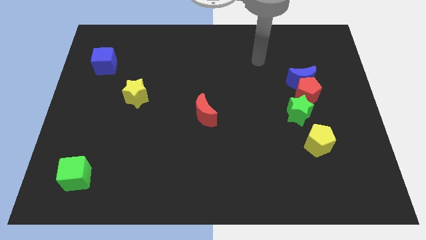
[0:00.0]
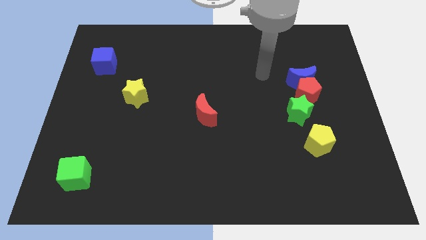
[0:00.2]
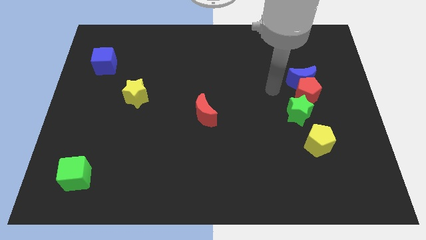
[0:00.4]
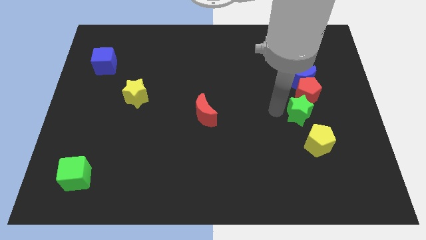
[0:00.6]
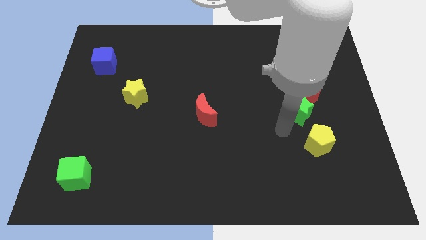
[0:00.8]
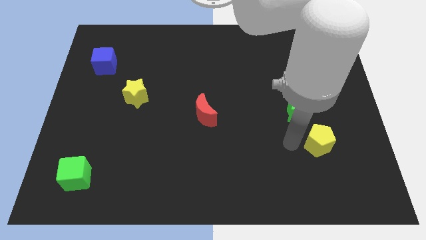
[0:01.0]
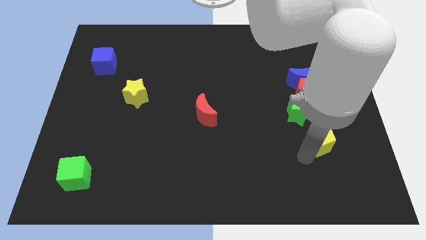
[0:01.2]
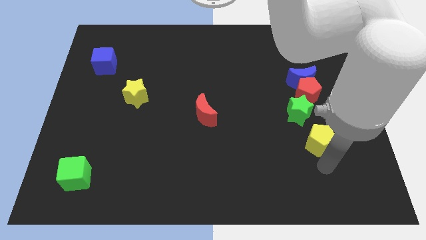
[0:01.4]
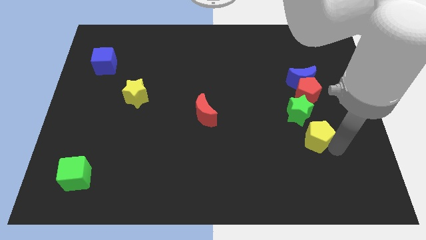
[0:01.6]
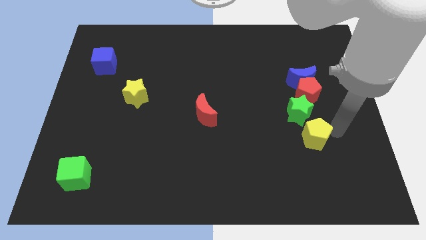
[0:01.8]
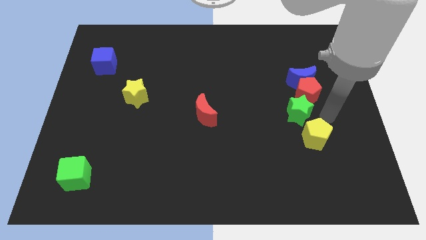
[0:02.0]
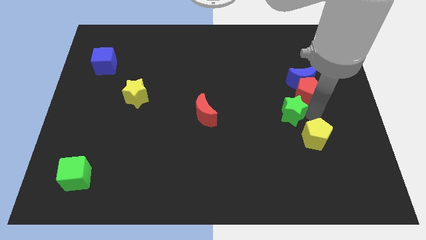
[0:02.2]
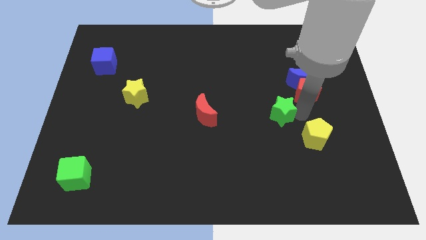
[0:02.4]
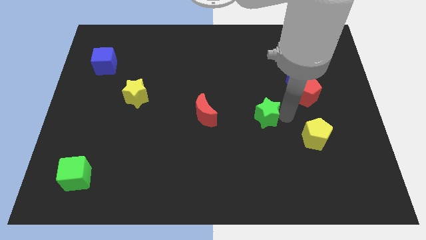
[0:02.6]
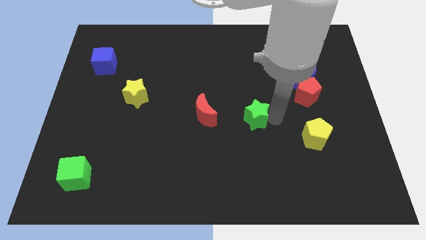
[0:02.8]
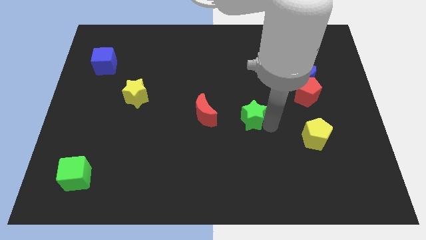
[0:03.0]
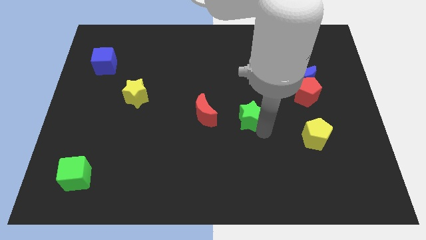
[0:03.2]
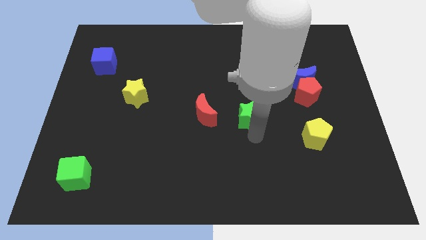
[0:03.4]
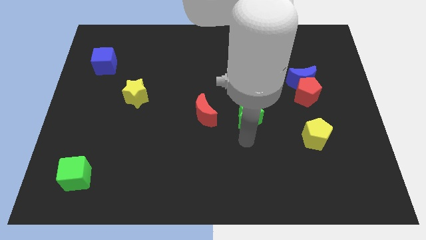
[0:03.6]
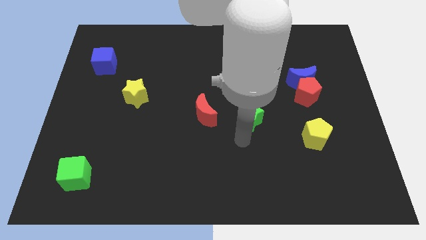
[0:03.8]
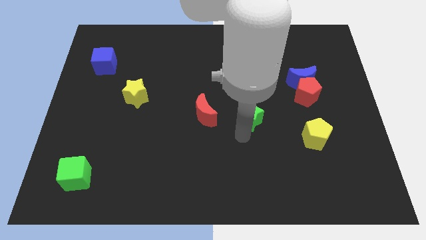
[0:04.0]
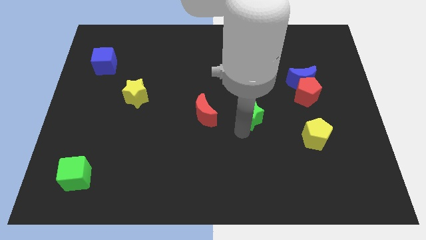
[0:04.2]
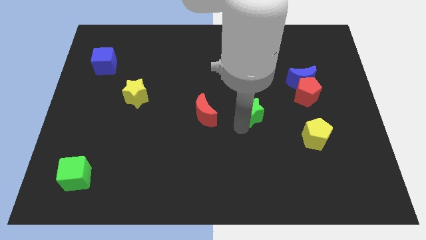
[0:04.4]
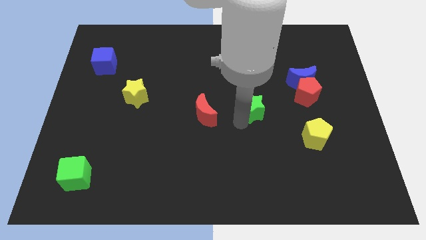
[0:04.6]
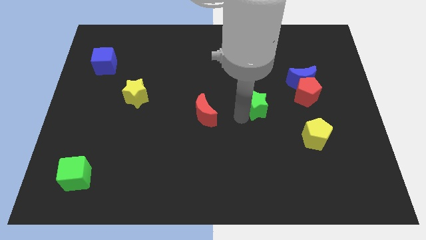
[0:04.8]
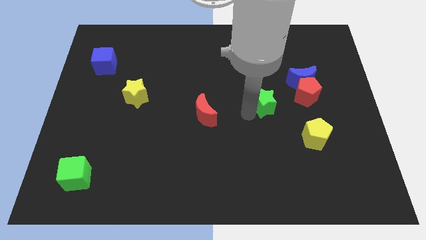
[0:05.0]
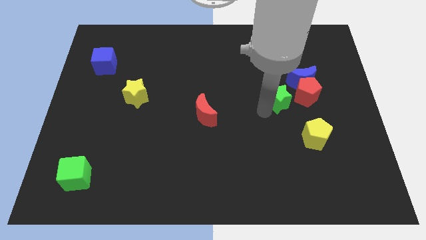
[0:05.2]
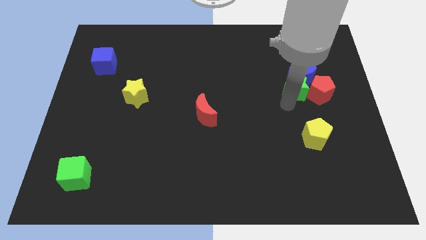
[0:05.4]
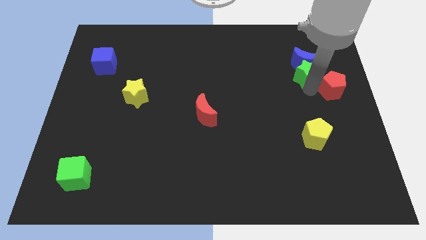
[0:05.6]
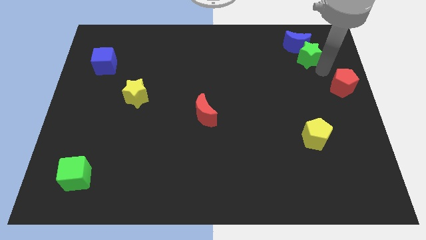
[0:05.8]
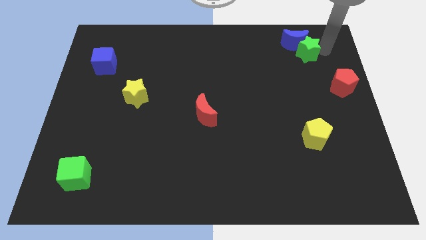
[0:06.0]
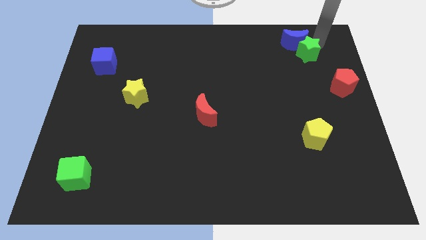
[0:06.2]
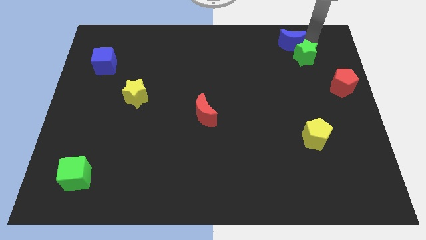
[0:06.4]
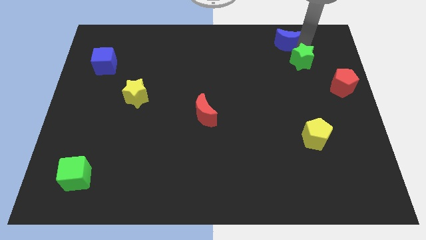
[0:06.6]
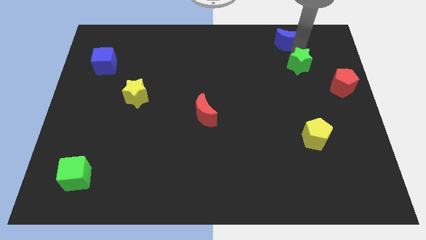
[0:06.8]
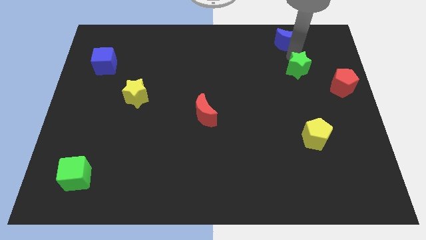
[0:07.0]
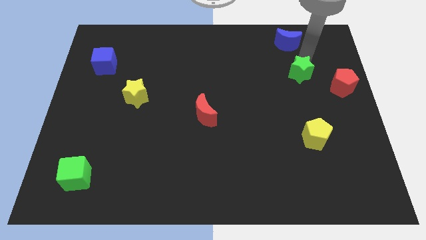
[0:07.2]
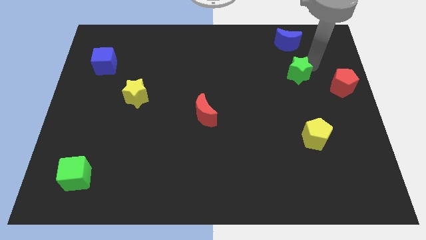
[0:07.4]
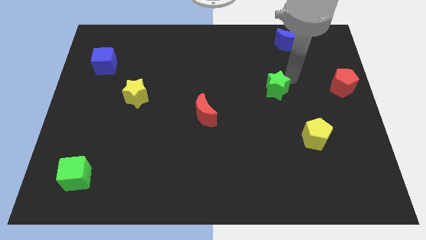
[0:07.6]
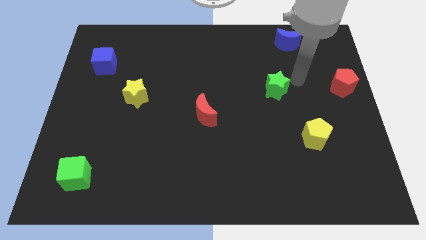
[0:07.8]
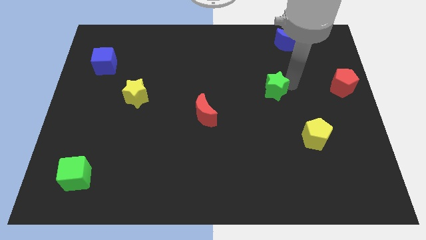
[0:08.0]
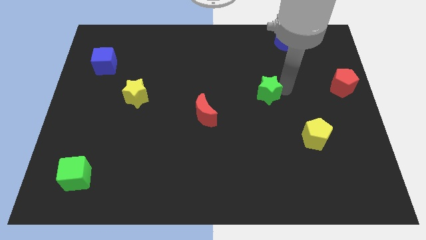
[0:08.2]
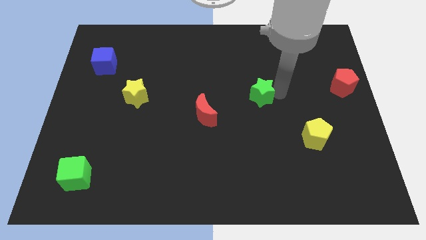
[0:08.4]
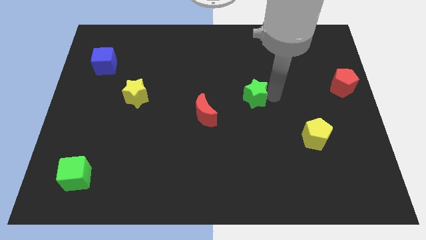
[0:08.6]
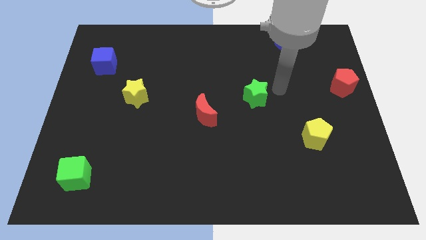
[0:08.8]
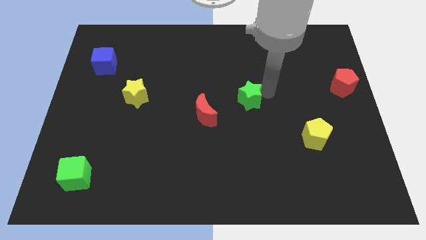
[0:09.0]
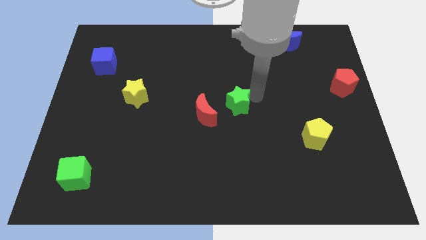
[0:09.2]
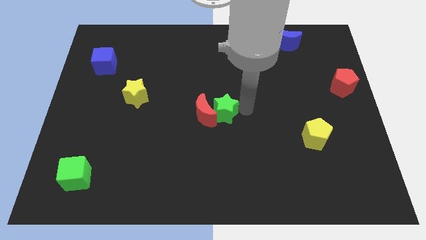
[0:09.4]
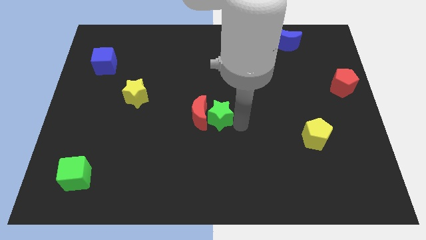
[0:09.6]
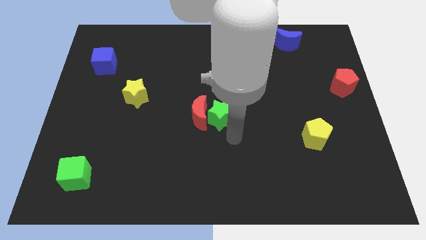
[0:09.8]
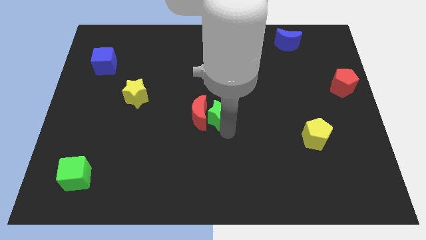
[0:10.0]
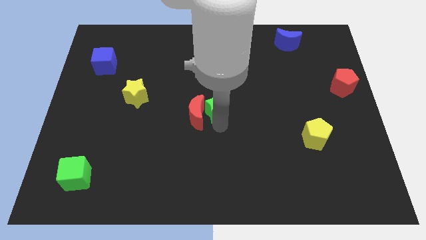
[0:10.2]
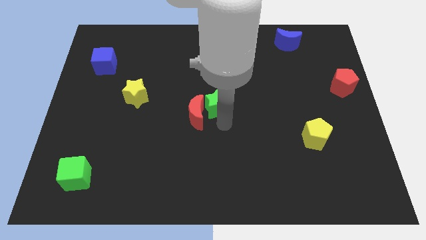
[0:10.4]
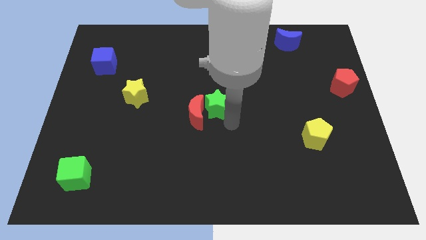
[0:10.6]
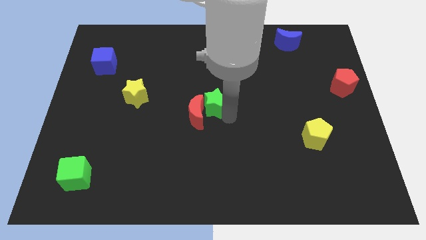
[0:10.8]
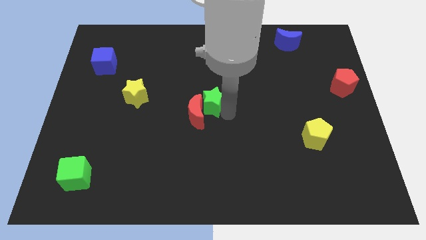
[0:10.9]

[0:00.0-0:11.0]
push the green star to the top side of the red moon

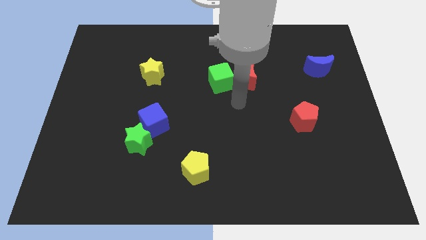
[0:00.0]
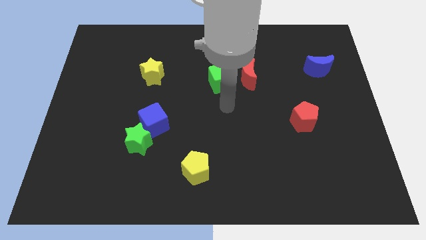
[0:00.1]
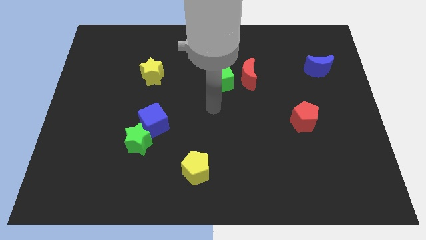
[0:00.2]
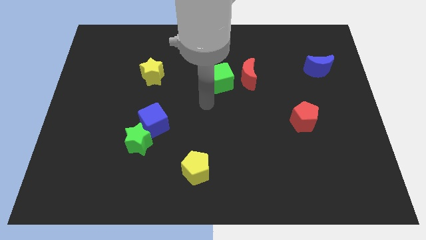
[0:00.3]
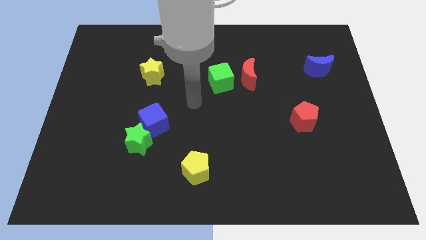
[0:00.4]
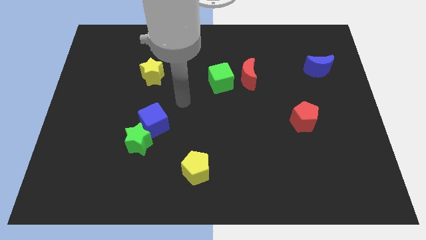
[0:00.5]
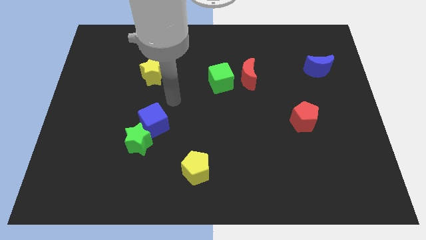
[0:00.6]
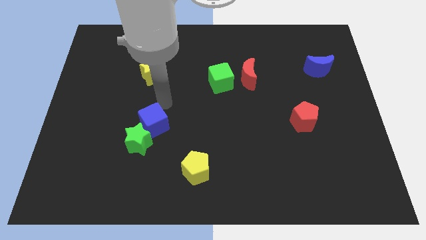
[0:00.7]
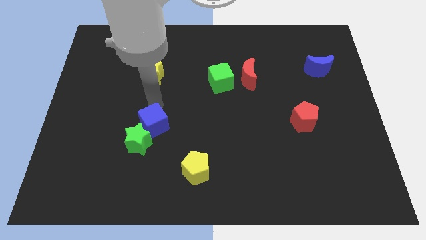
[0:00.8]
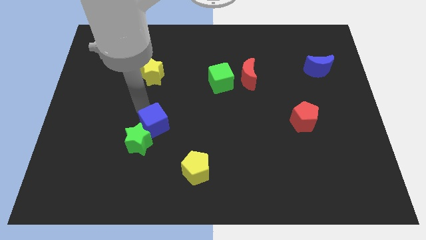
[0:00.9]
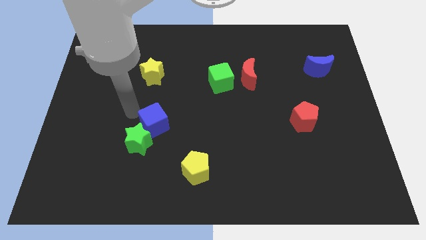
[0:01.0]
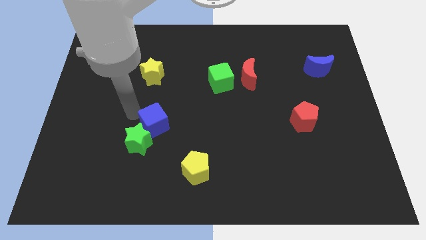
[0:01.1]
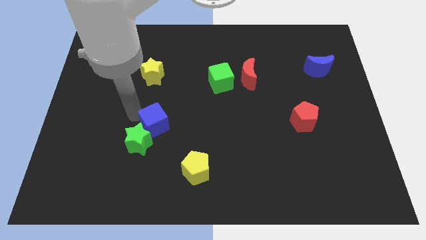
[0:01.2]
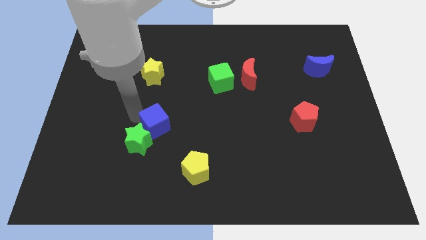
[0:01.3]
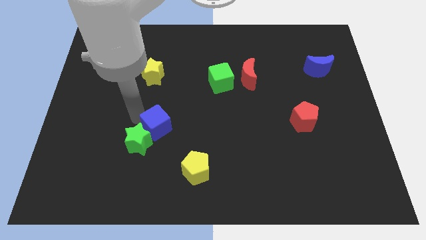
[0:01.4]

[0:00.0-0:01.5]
put the blue cube just right of the green star

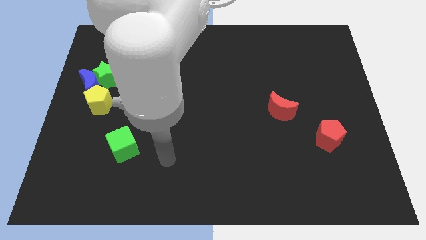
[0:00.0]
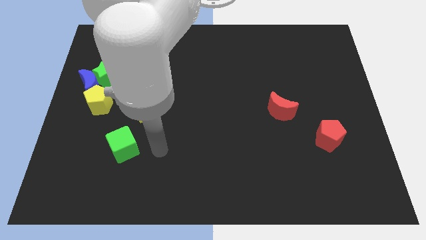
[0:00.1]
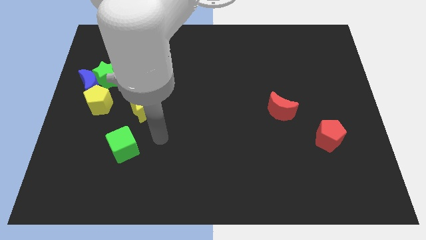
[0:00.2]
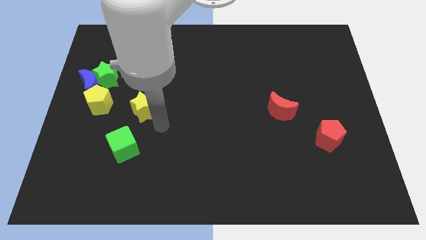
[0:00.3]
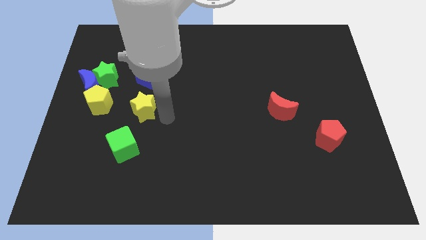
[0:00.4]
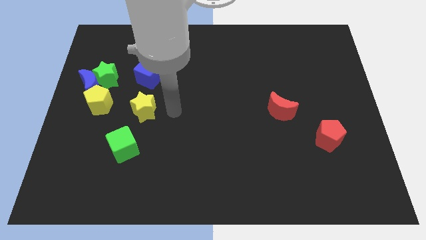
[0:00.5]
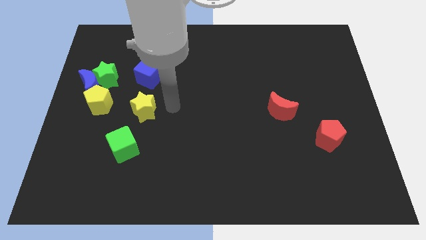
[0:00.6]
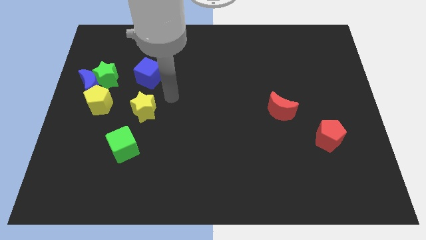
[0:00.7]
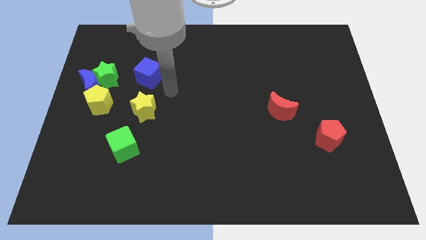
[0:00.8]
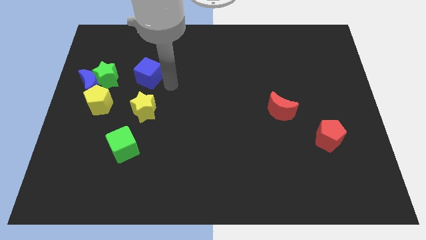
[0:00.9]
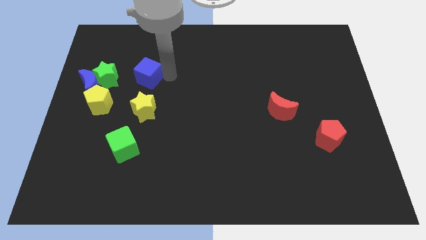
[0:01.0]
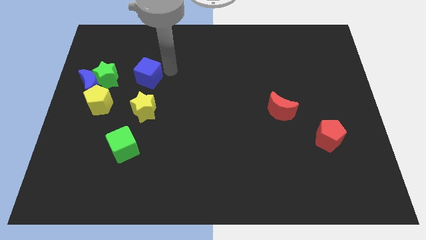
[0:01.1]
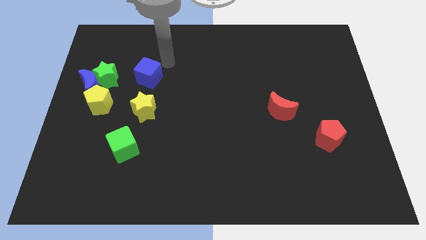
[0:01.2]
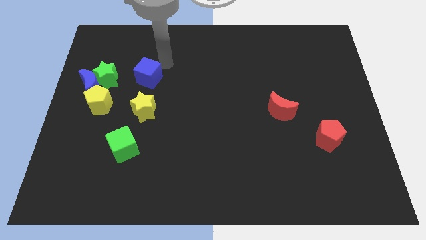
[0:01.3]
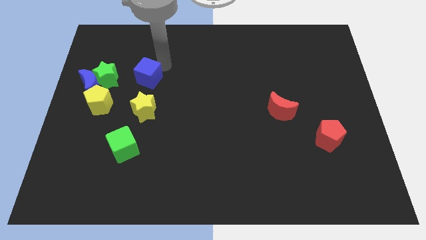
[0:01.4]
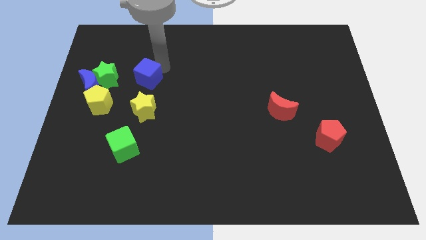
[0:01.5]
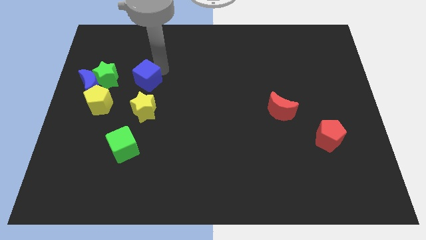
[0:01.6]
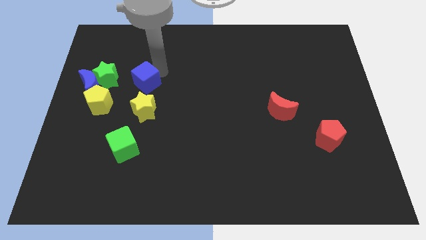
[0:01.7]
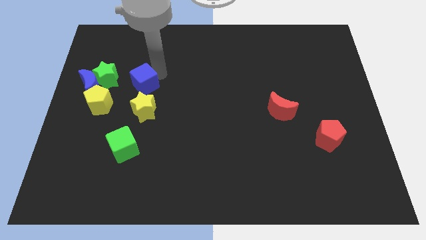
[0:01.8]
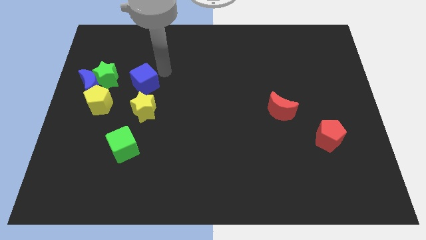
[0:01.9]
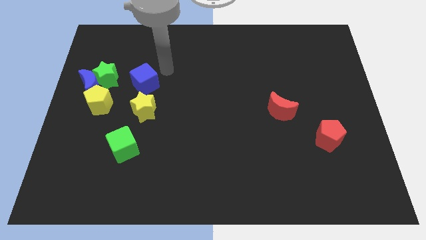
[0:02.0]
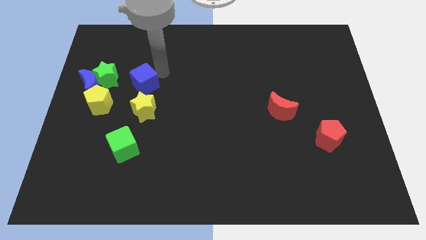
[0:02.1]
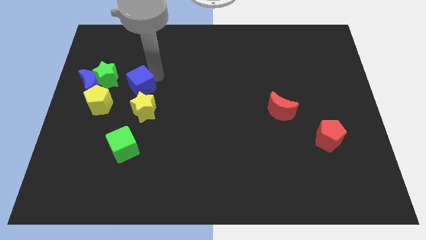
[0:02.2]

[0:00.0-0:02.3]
move the blue cube to the bottom right of the green star
